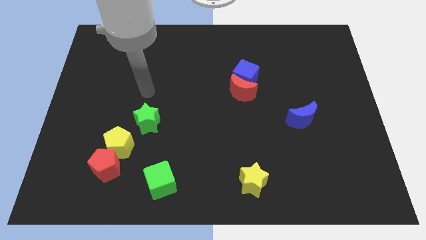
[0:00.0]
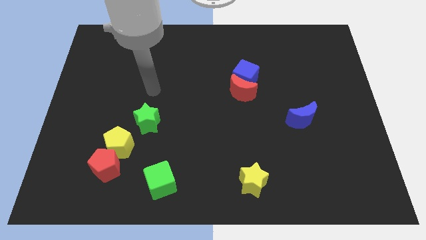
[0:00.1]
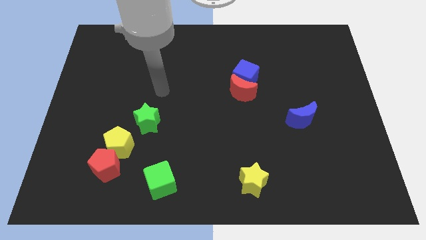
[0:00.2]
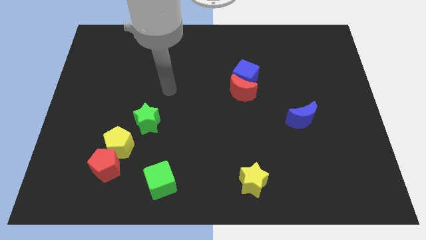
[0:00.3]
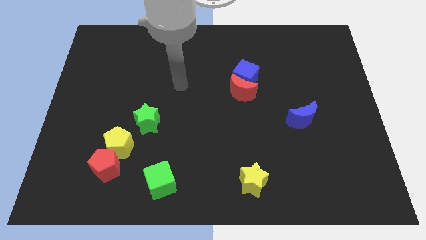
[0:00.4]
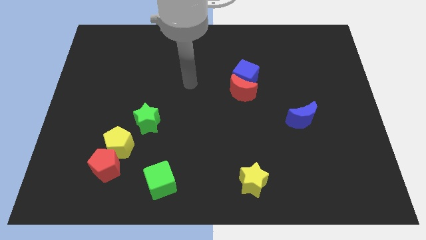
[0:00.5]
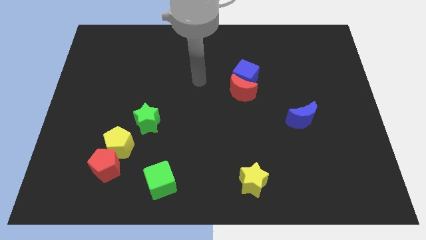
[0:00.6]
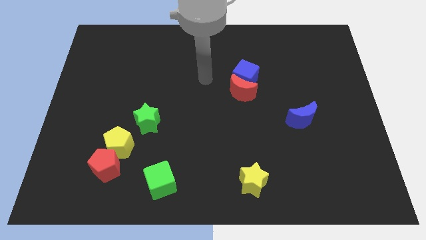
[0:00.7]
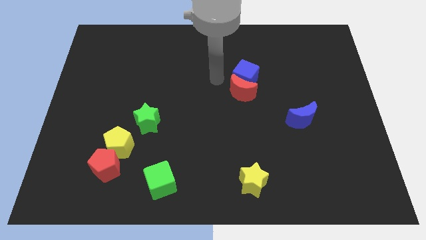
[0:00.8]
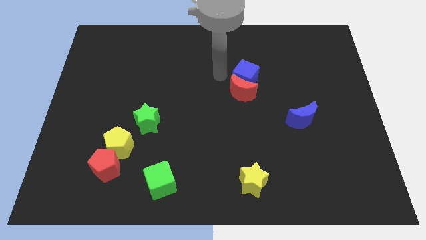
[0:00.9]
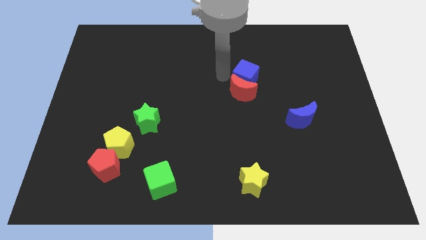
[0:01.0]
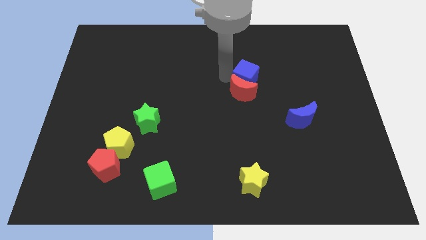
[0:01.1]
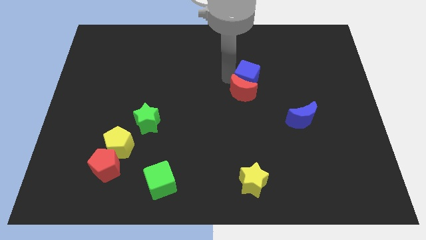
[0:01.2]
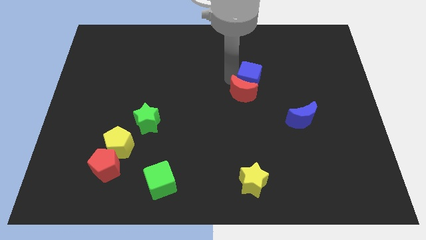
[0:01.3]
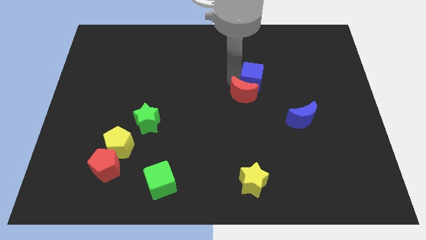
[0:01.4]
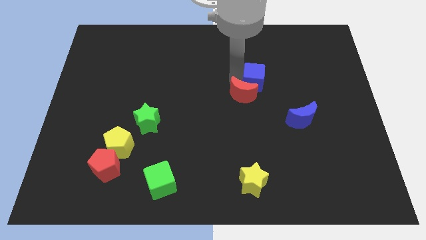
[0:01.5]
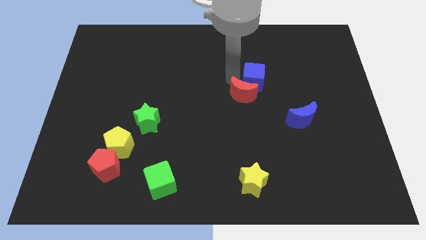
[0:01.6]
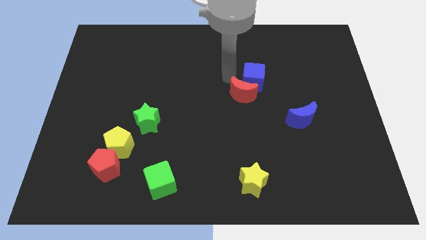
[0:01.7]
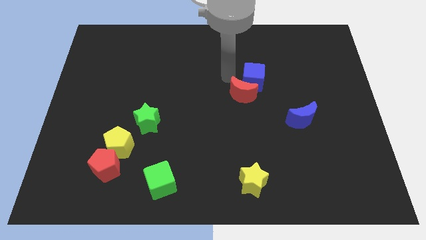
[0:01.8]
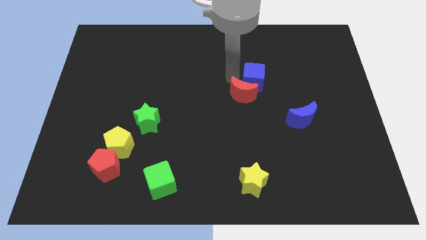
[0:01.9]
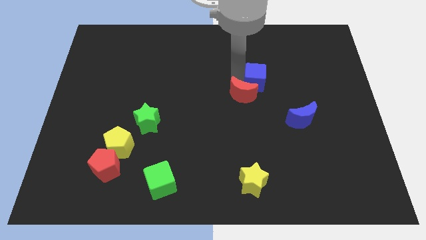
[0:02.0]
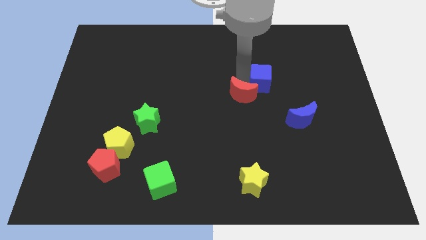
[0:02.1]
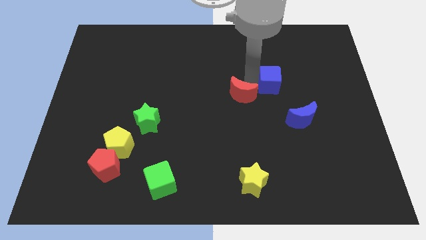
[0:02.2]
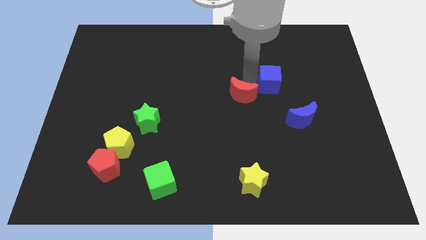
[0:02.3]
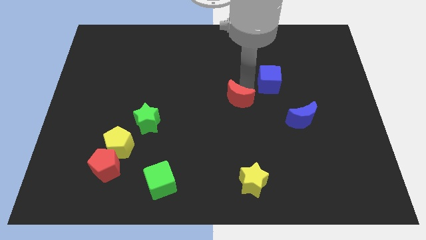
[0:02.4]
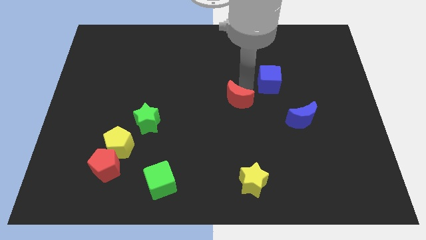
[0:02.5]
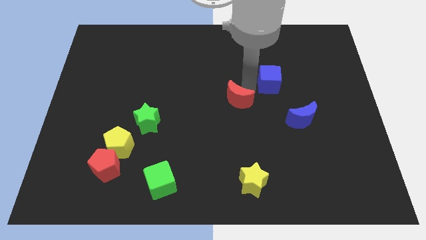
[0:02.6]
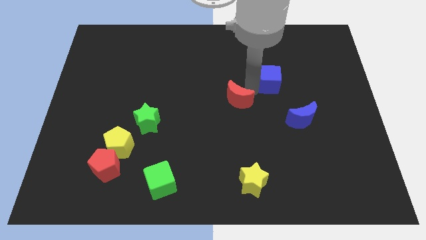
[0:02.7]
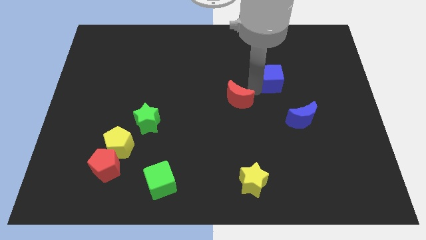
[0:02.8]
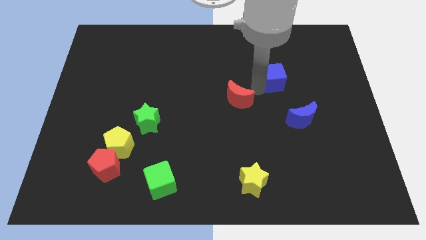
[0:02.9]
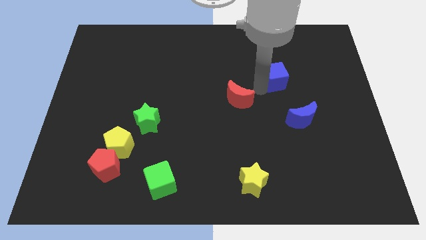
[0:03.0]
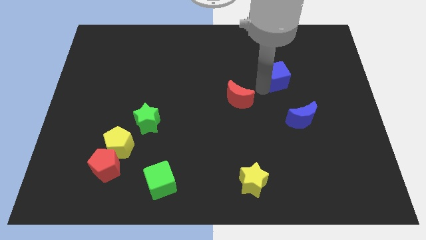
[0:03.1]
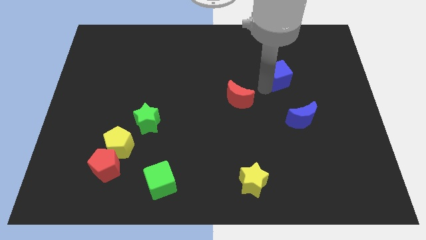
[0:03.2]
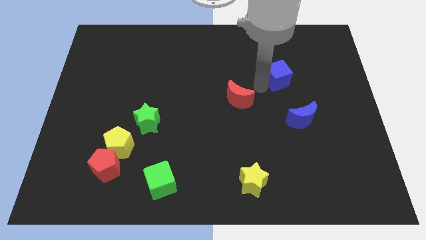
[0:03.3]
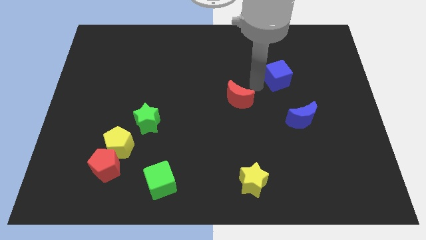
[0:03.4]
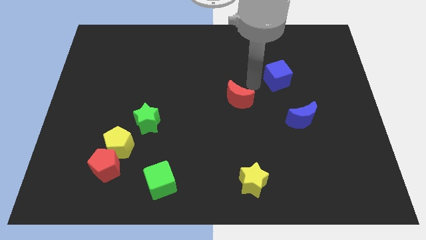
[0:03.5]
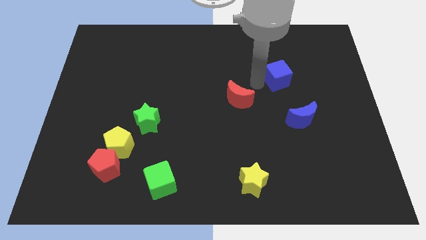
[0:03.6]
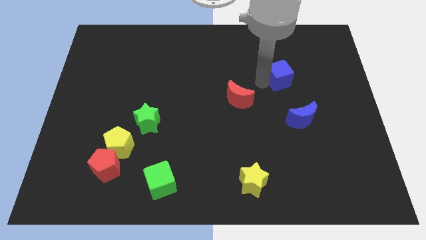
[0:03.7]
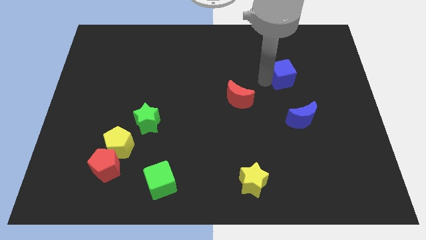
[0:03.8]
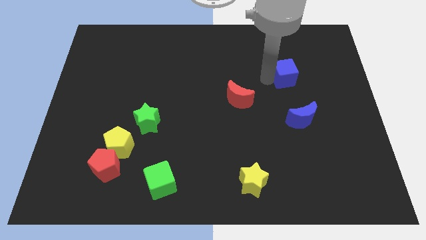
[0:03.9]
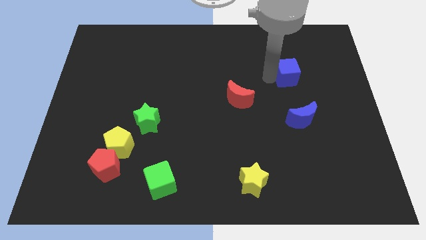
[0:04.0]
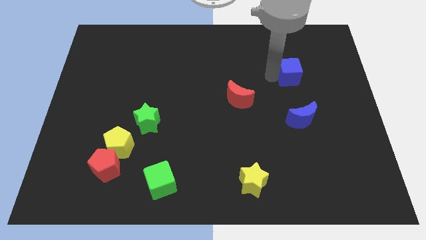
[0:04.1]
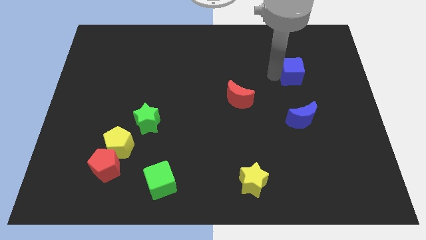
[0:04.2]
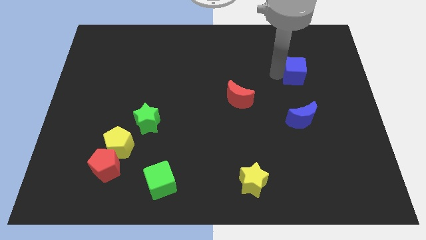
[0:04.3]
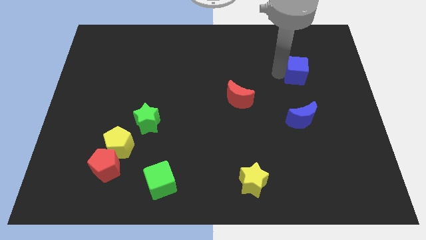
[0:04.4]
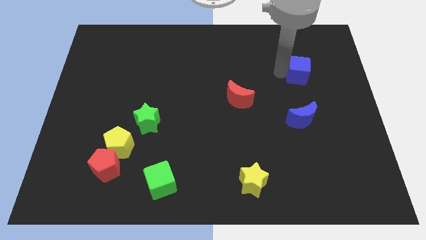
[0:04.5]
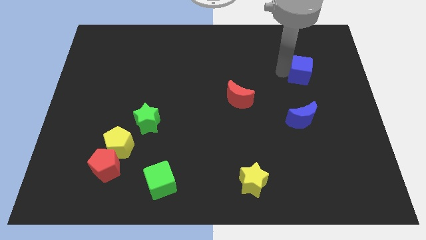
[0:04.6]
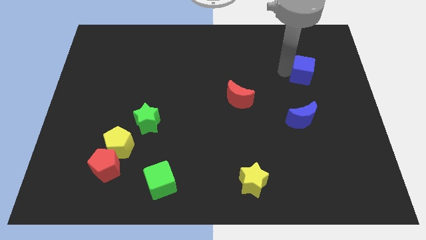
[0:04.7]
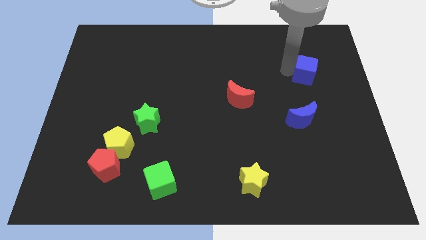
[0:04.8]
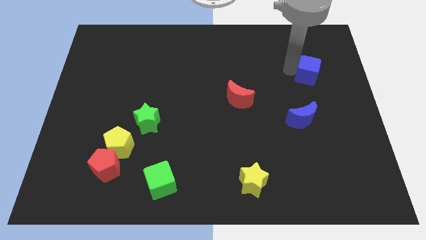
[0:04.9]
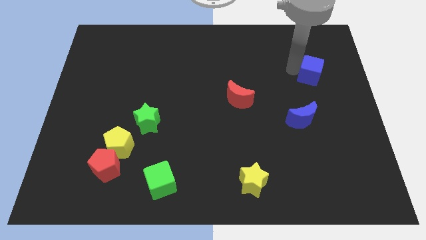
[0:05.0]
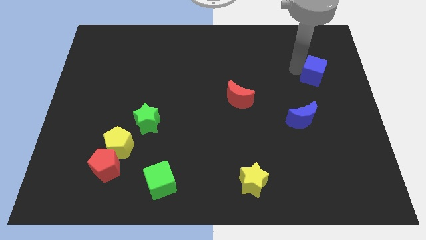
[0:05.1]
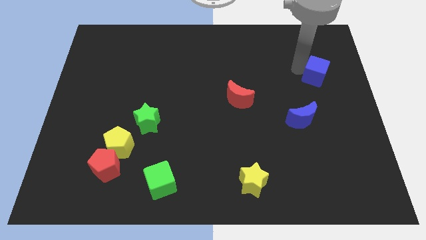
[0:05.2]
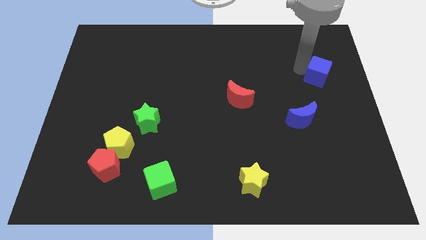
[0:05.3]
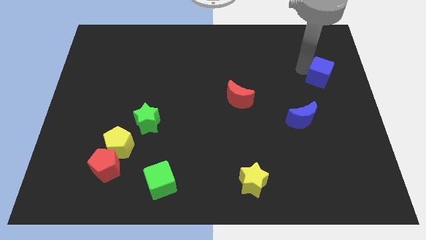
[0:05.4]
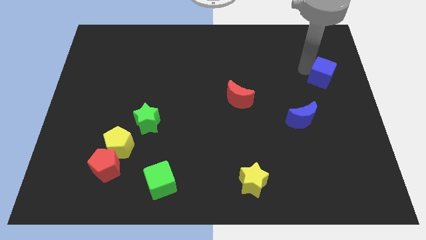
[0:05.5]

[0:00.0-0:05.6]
slide the blue cube to the right side of the board

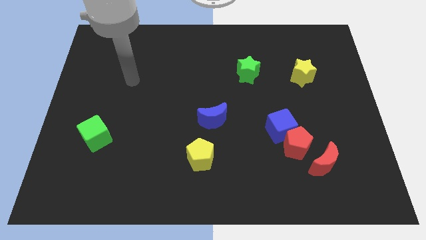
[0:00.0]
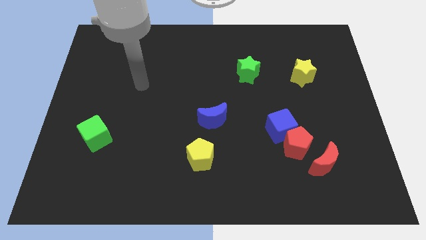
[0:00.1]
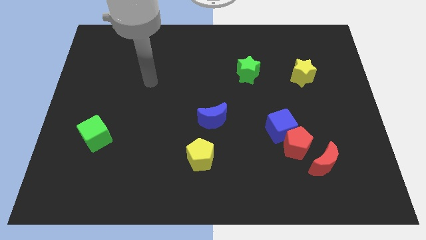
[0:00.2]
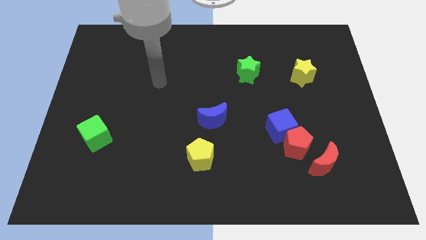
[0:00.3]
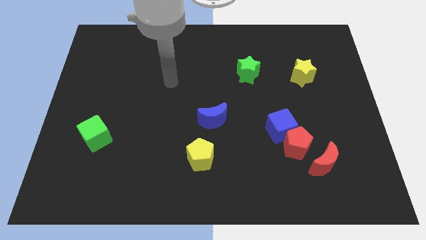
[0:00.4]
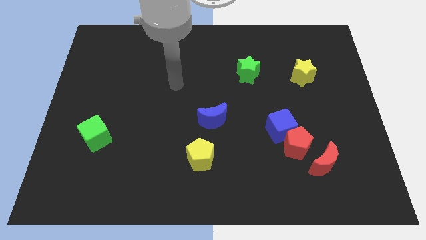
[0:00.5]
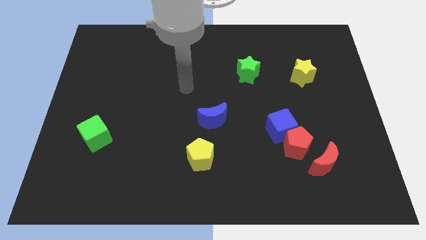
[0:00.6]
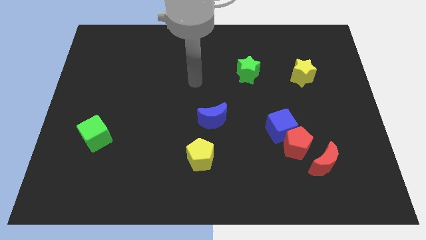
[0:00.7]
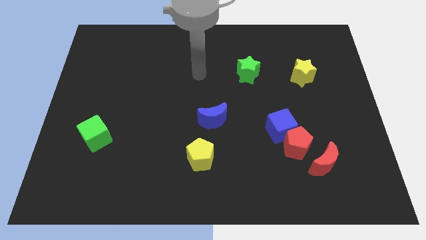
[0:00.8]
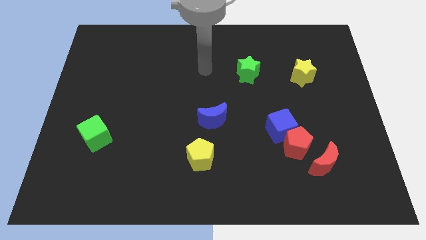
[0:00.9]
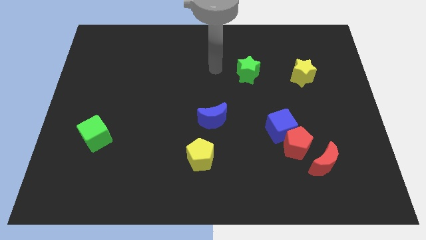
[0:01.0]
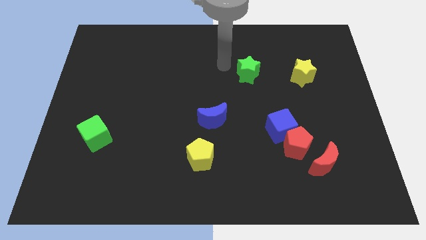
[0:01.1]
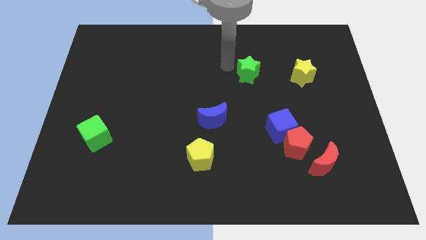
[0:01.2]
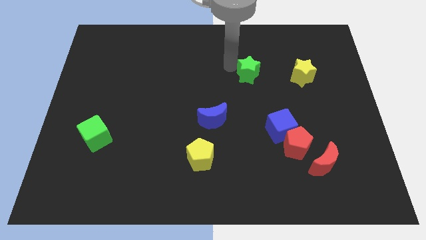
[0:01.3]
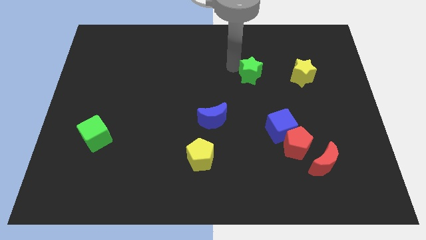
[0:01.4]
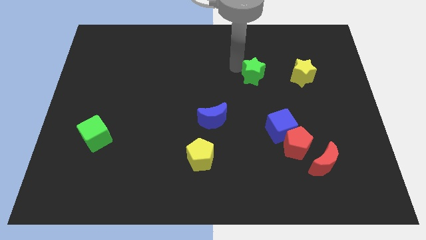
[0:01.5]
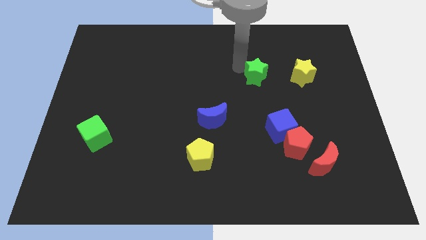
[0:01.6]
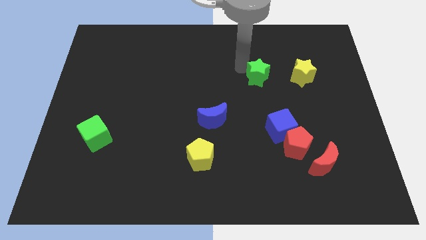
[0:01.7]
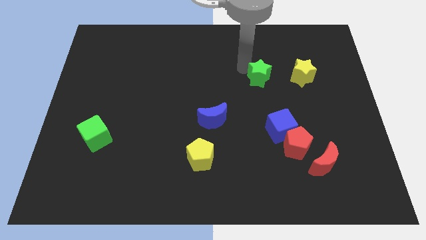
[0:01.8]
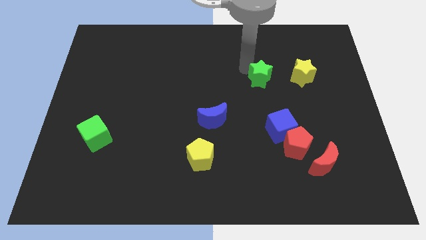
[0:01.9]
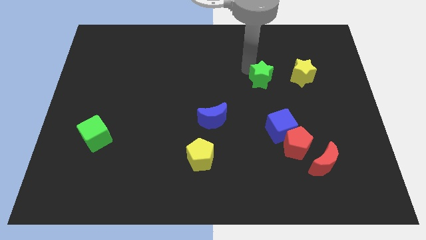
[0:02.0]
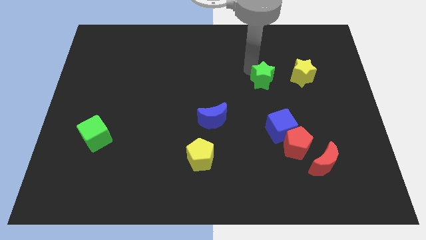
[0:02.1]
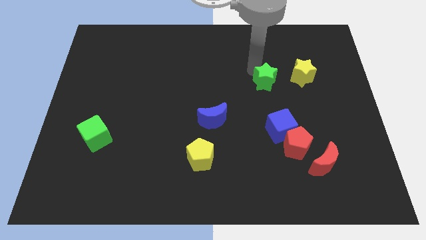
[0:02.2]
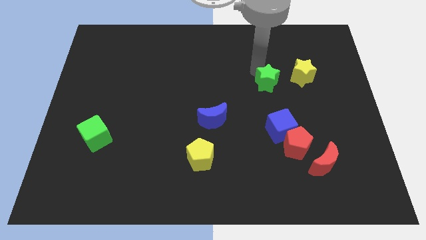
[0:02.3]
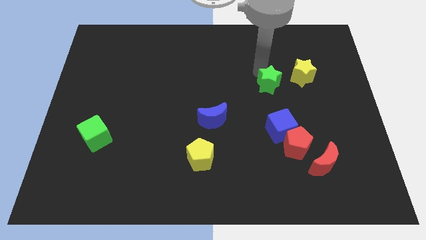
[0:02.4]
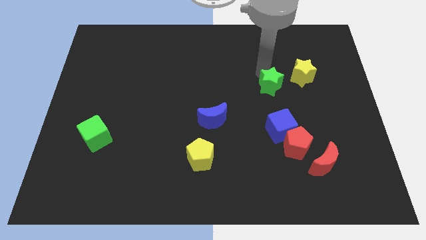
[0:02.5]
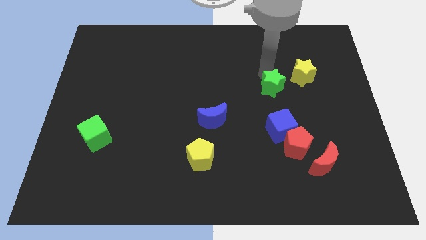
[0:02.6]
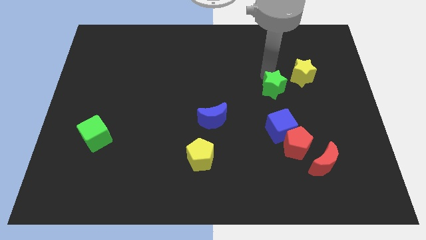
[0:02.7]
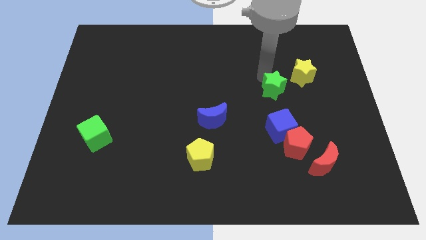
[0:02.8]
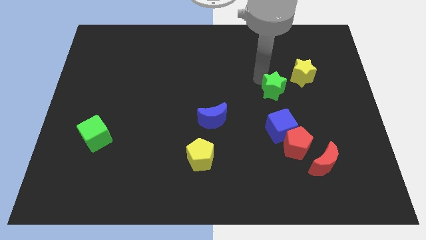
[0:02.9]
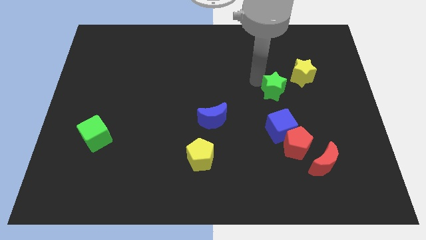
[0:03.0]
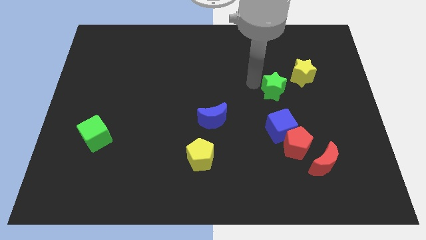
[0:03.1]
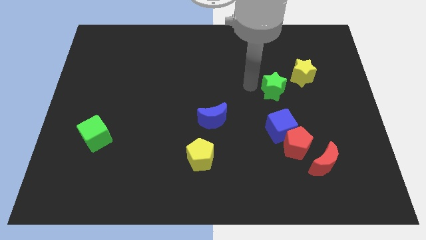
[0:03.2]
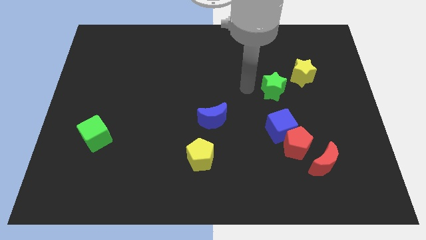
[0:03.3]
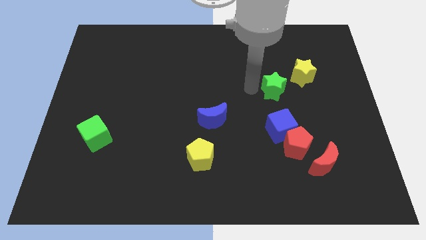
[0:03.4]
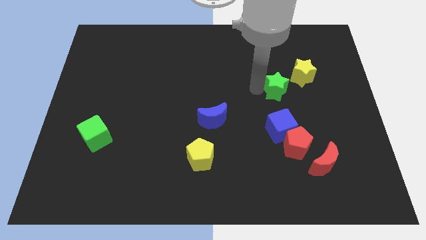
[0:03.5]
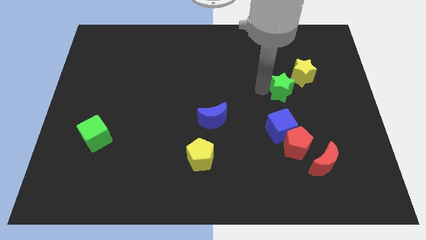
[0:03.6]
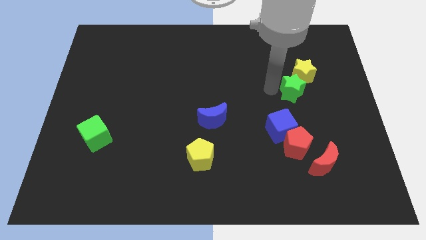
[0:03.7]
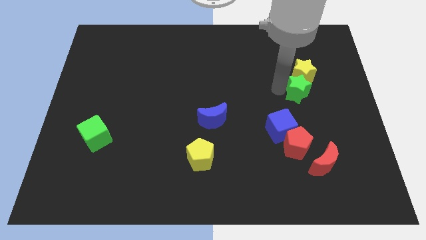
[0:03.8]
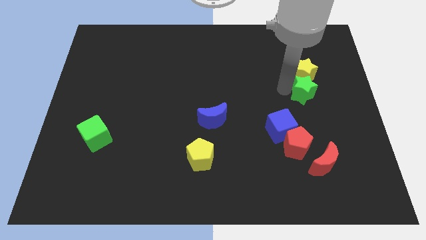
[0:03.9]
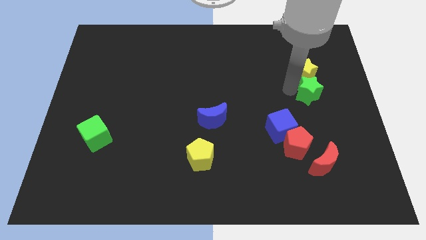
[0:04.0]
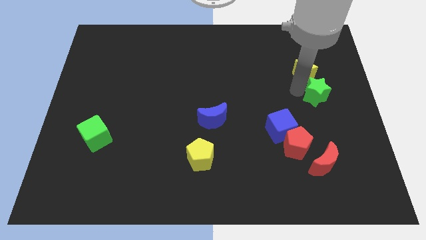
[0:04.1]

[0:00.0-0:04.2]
move the green star to the center right
